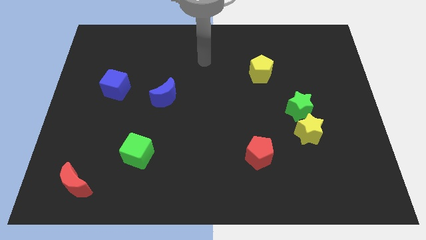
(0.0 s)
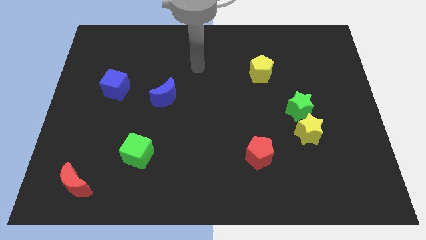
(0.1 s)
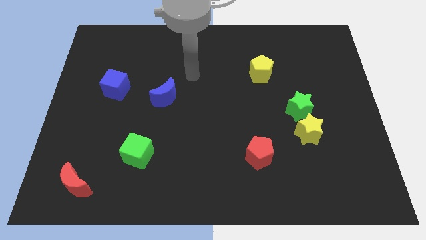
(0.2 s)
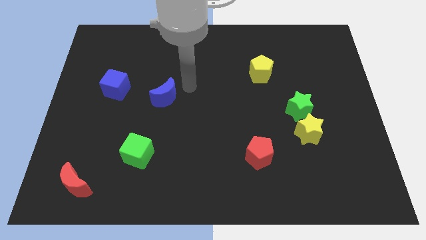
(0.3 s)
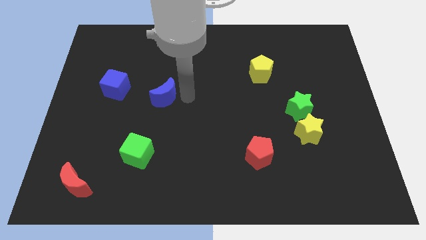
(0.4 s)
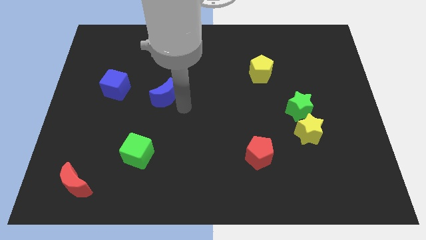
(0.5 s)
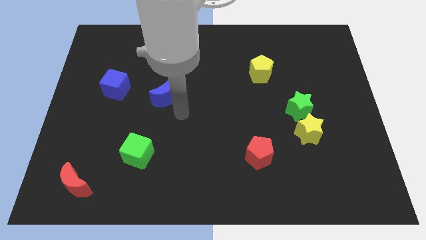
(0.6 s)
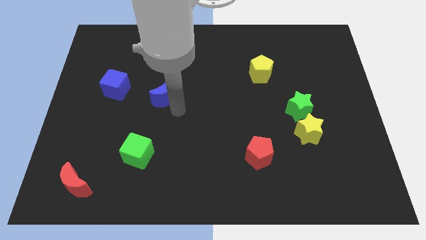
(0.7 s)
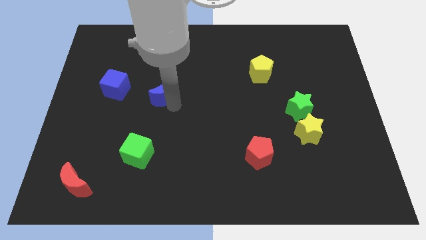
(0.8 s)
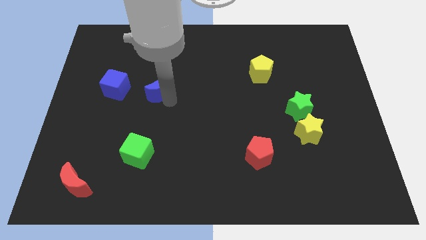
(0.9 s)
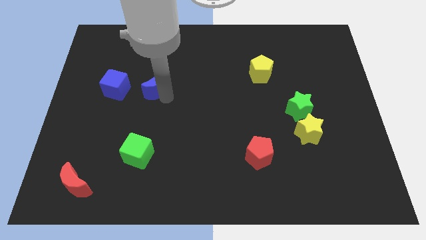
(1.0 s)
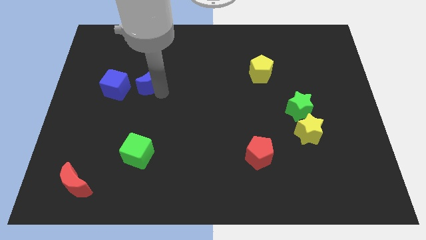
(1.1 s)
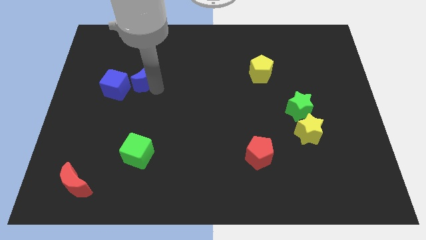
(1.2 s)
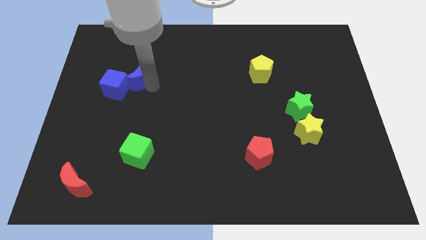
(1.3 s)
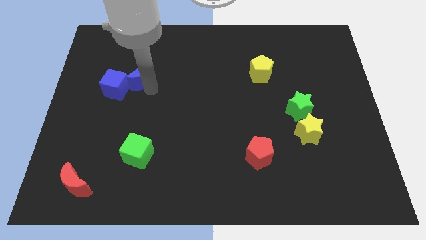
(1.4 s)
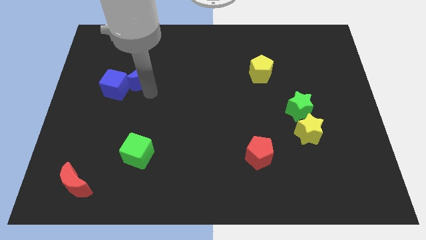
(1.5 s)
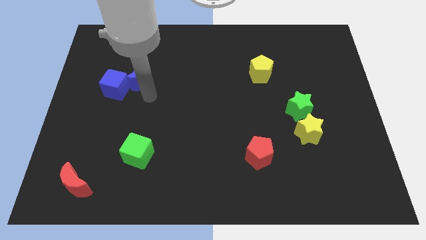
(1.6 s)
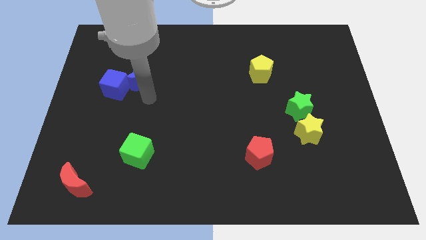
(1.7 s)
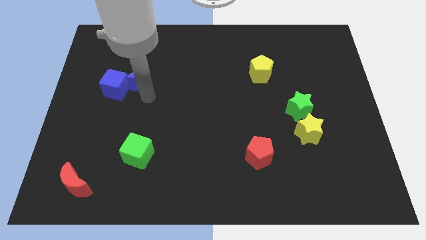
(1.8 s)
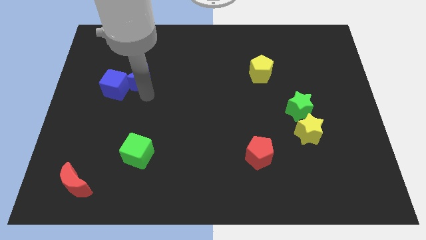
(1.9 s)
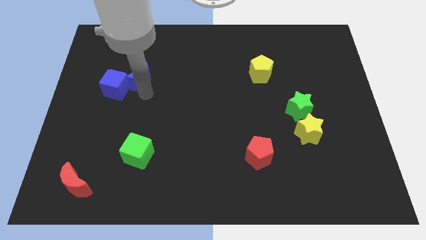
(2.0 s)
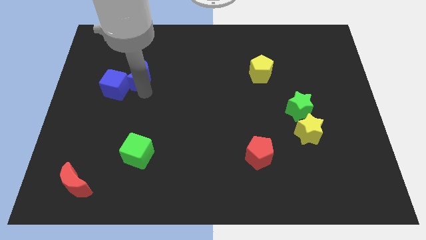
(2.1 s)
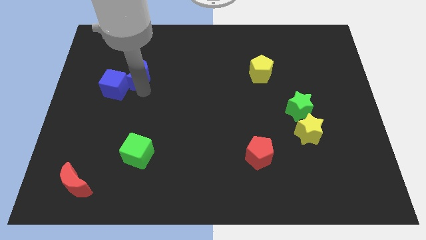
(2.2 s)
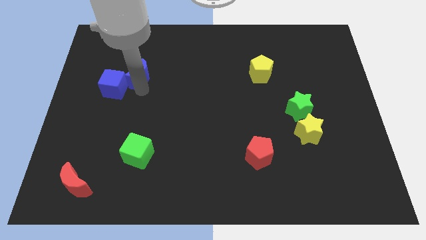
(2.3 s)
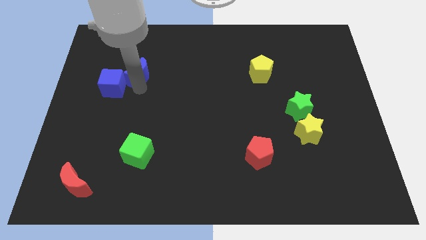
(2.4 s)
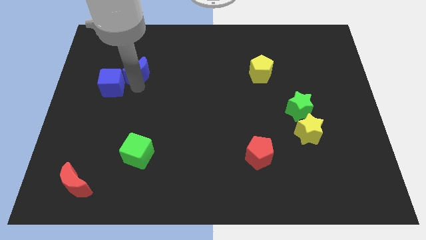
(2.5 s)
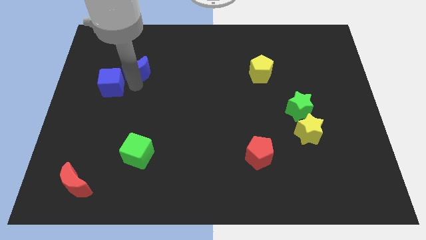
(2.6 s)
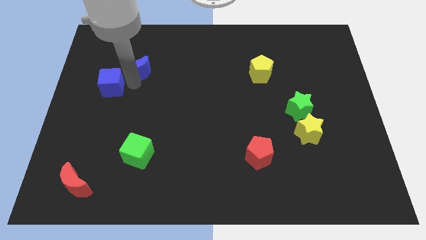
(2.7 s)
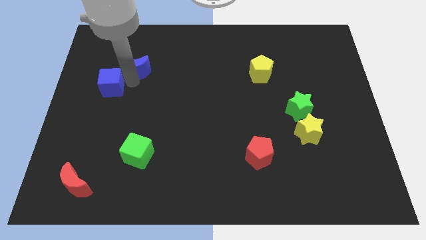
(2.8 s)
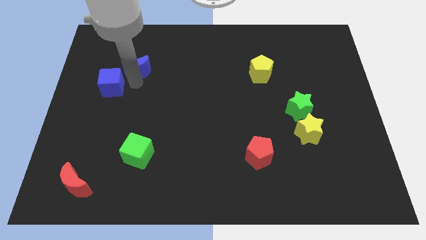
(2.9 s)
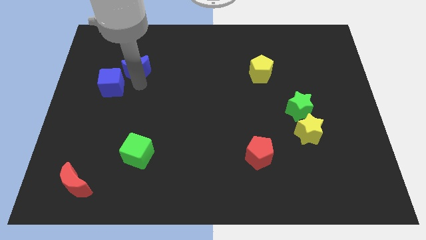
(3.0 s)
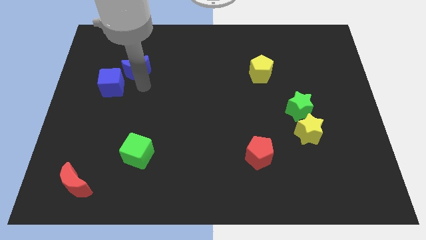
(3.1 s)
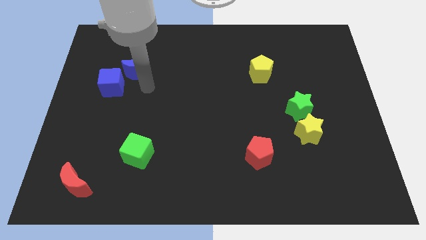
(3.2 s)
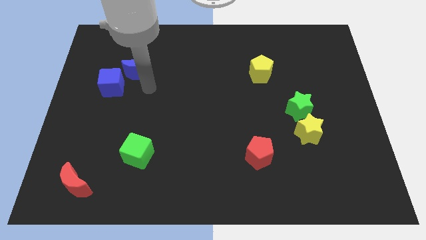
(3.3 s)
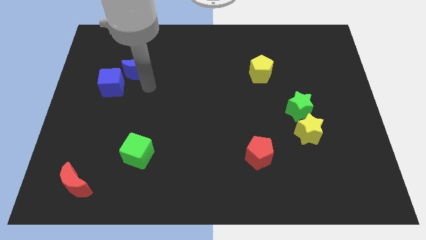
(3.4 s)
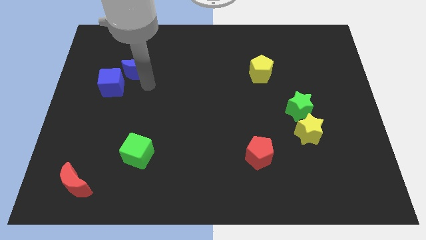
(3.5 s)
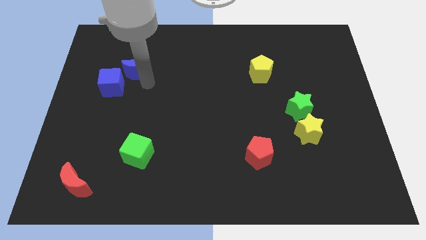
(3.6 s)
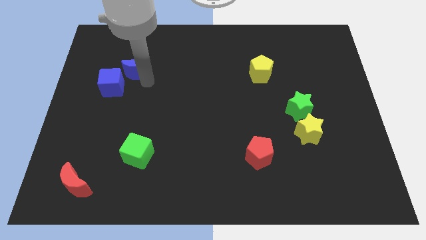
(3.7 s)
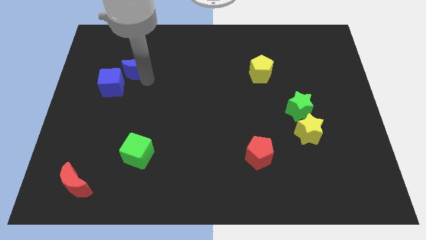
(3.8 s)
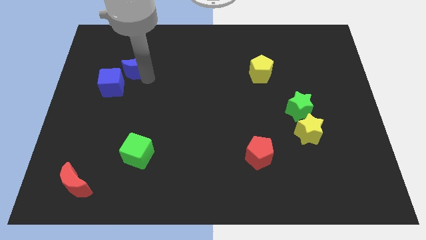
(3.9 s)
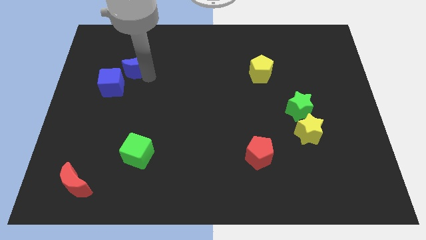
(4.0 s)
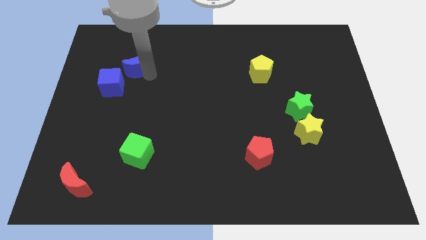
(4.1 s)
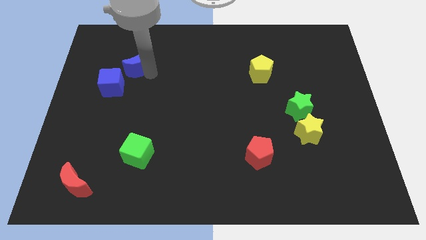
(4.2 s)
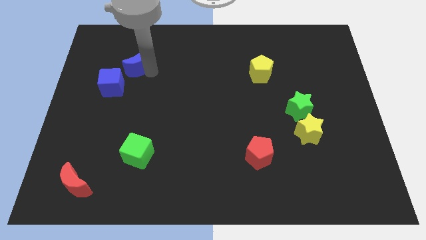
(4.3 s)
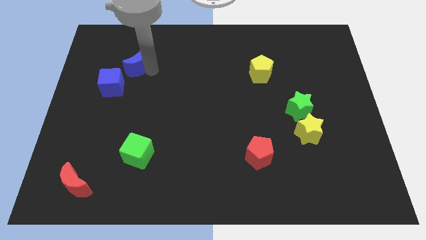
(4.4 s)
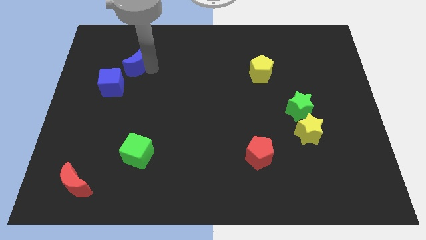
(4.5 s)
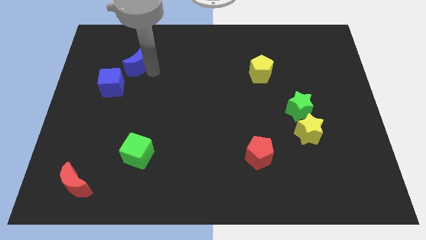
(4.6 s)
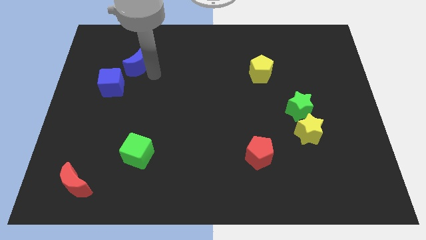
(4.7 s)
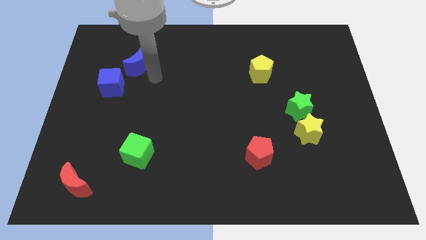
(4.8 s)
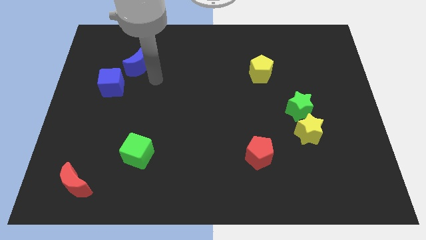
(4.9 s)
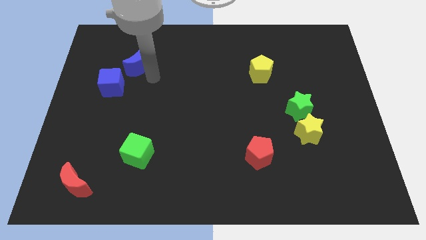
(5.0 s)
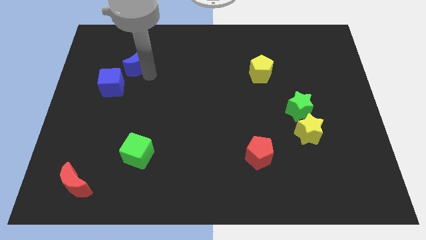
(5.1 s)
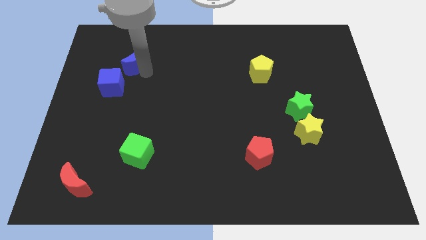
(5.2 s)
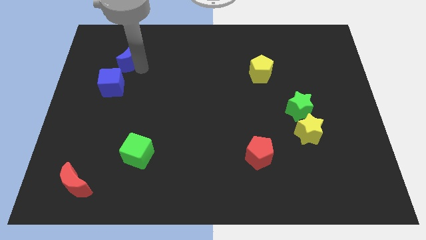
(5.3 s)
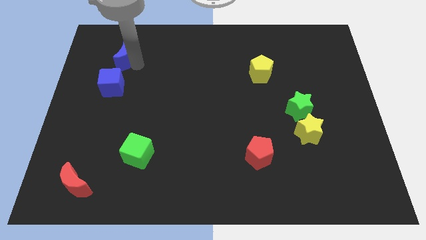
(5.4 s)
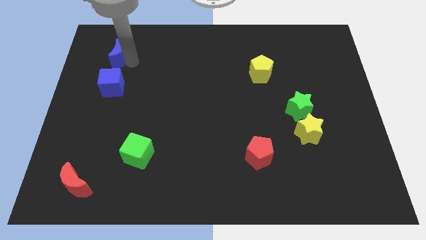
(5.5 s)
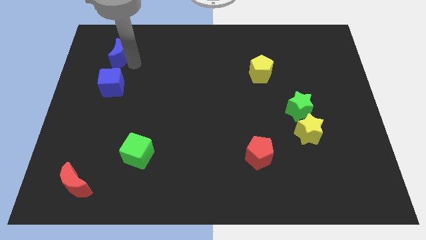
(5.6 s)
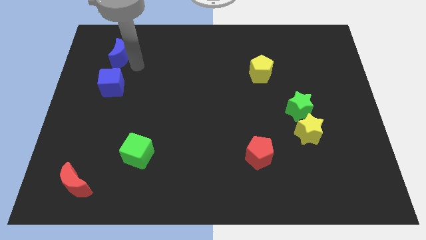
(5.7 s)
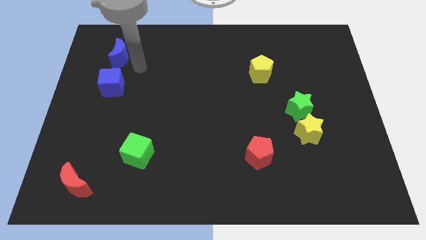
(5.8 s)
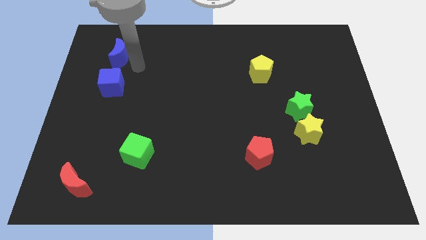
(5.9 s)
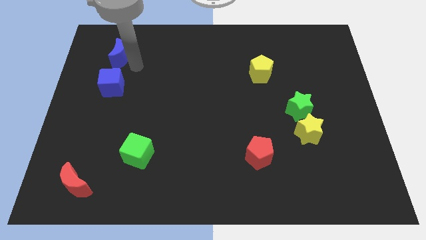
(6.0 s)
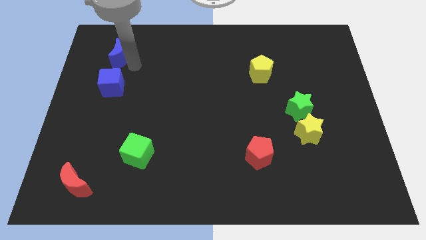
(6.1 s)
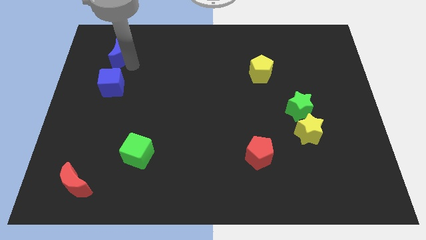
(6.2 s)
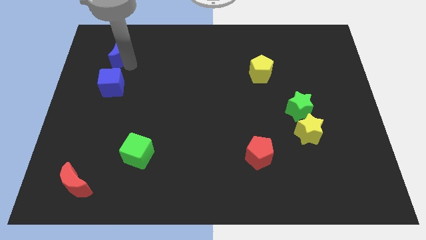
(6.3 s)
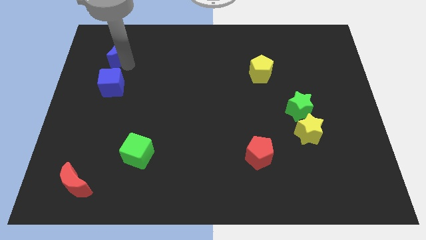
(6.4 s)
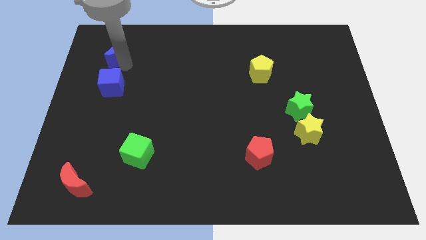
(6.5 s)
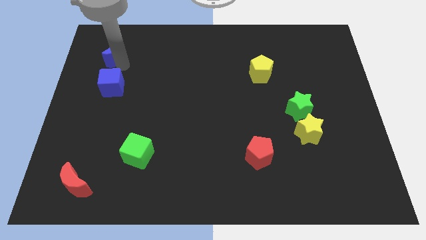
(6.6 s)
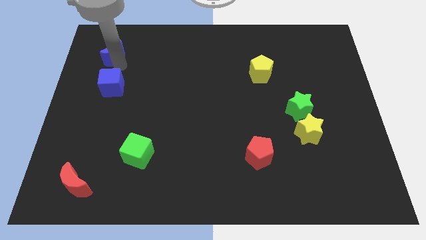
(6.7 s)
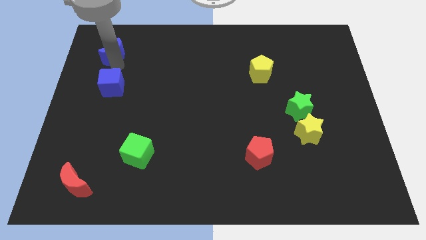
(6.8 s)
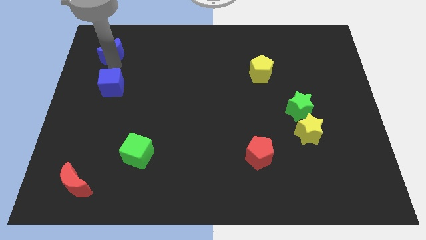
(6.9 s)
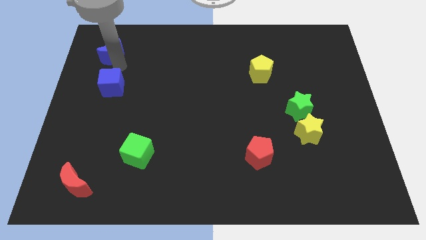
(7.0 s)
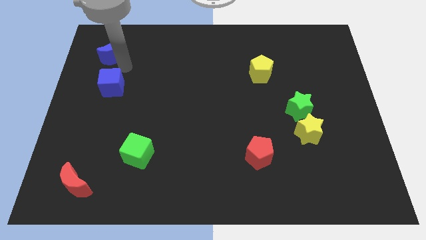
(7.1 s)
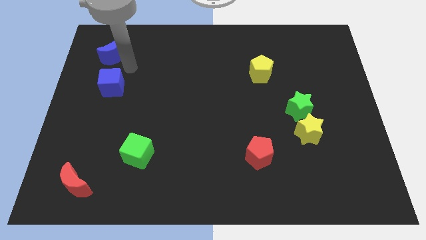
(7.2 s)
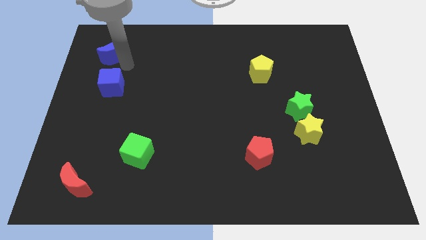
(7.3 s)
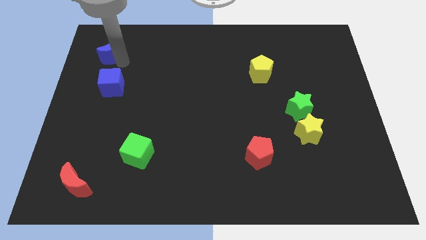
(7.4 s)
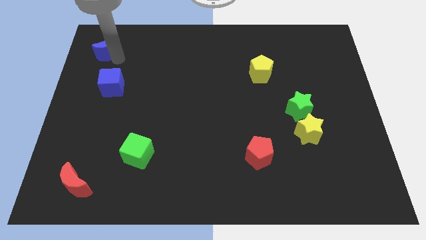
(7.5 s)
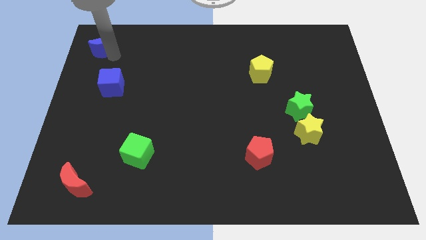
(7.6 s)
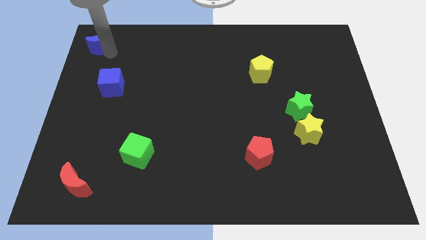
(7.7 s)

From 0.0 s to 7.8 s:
put the blue moon to the top left corner
